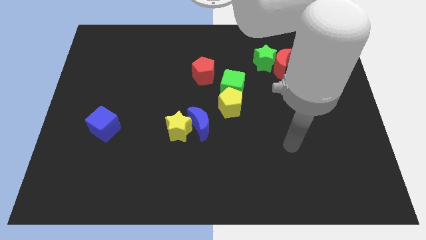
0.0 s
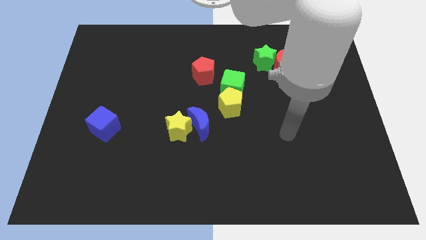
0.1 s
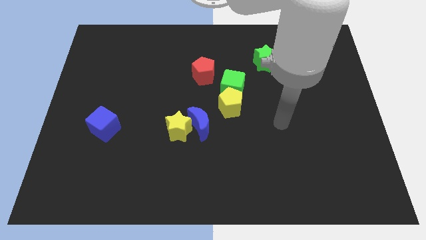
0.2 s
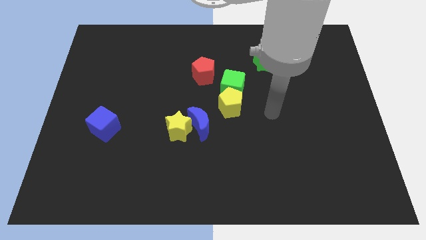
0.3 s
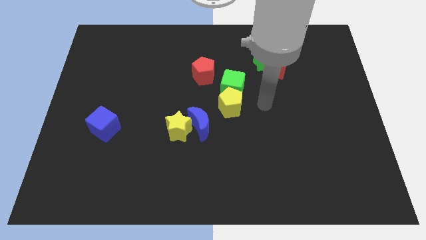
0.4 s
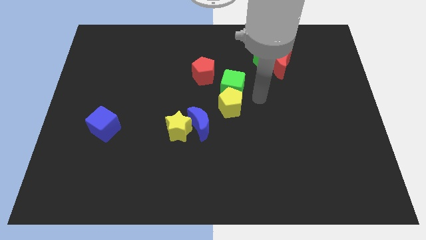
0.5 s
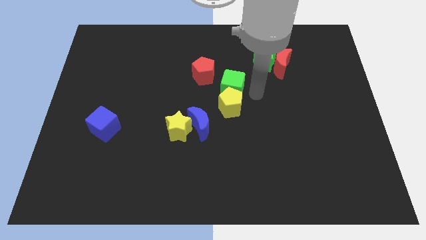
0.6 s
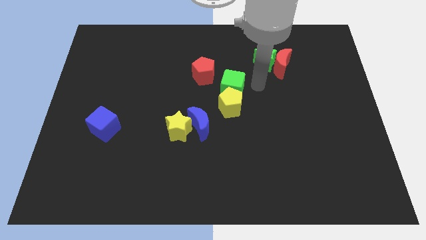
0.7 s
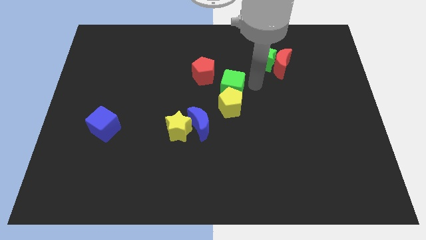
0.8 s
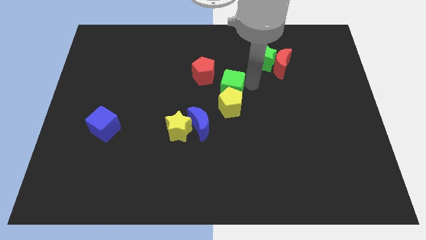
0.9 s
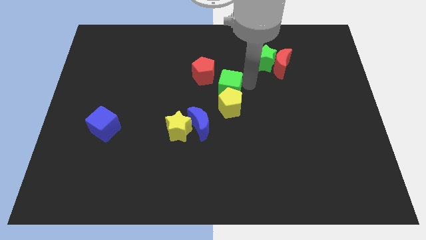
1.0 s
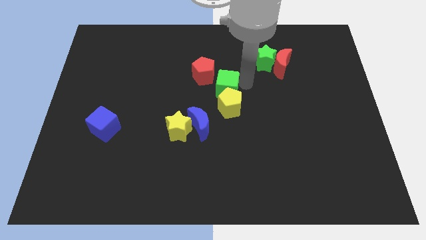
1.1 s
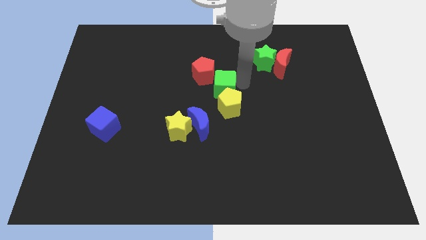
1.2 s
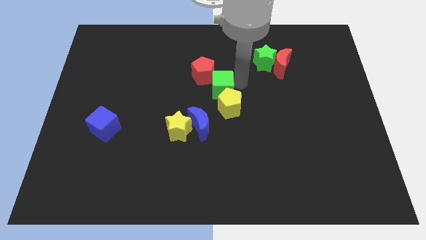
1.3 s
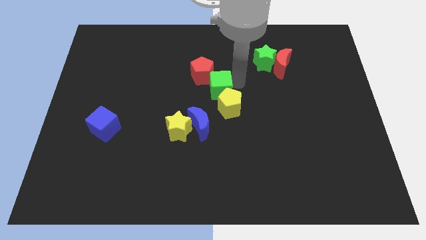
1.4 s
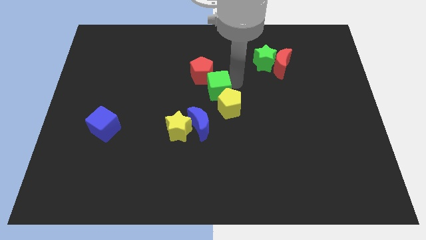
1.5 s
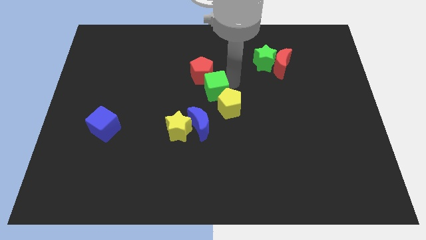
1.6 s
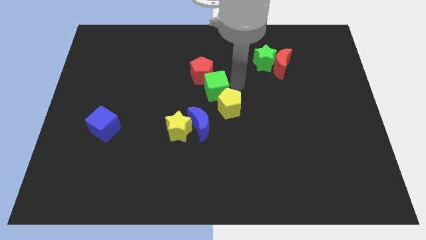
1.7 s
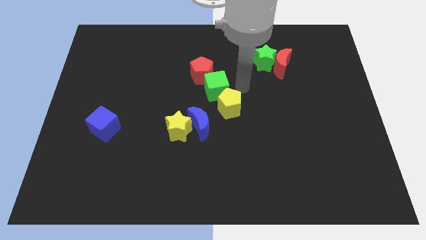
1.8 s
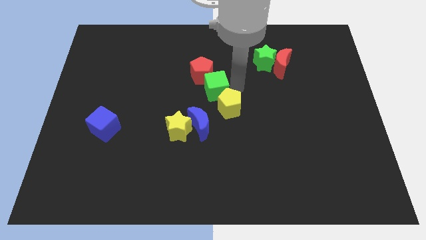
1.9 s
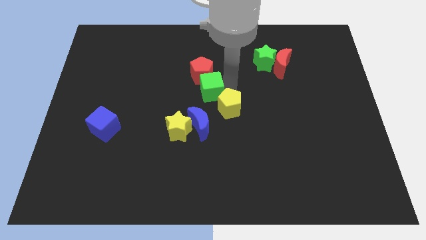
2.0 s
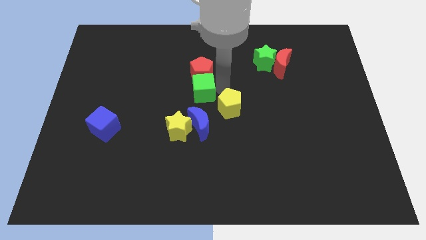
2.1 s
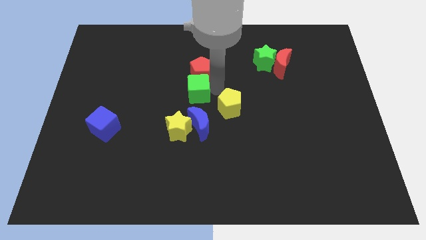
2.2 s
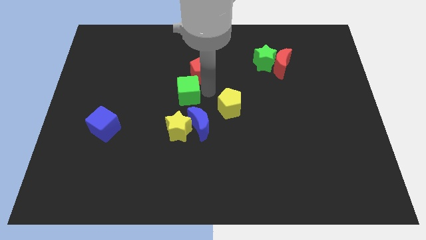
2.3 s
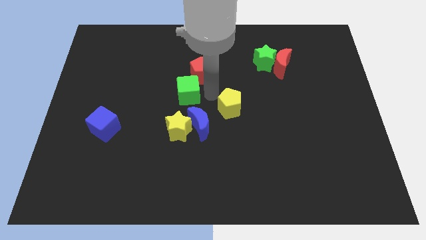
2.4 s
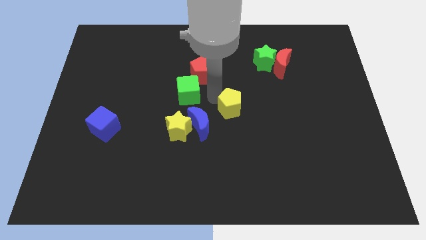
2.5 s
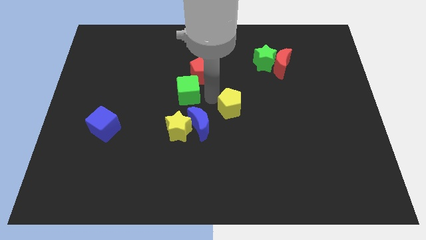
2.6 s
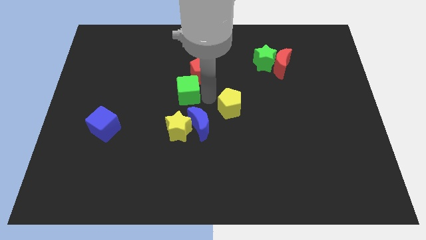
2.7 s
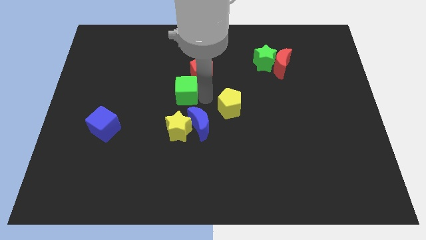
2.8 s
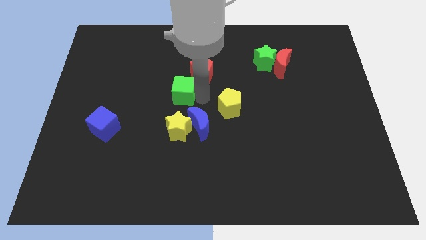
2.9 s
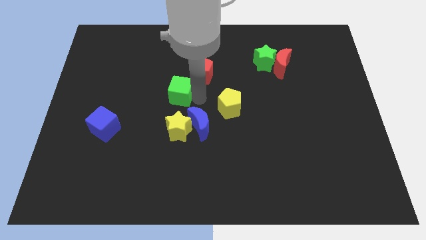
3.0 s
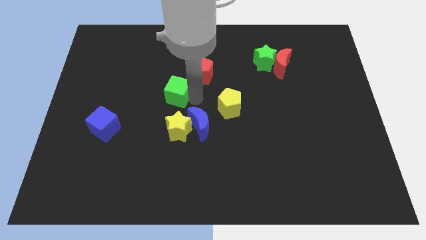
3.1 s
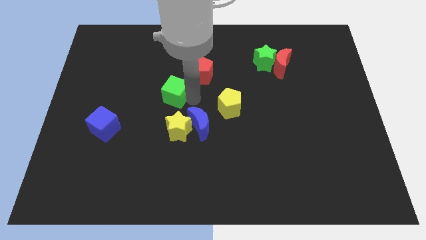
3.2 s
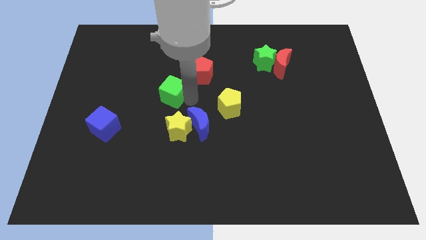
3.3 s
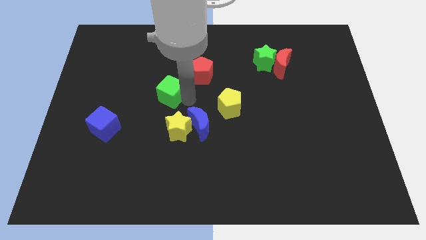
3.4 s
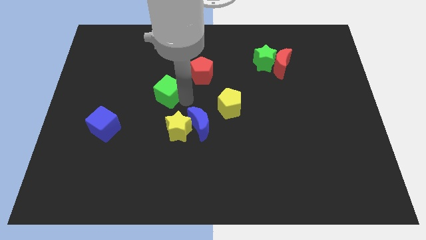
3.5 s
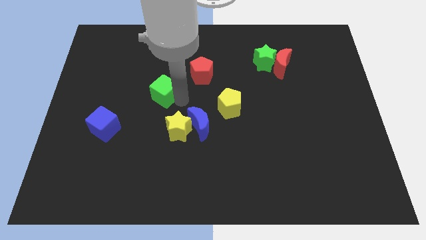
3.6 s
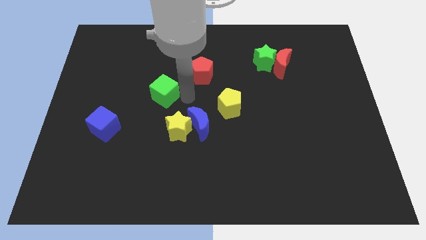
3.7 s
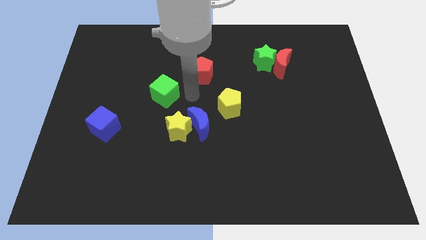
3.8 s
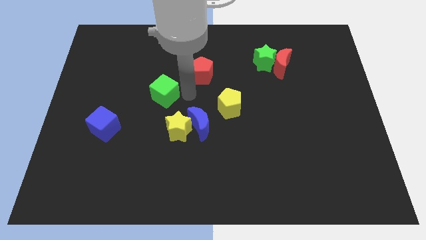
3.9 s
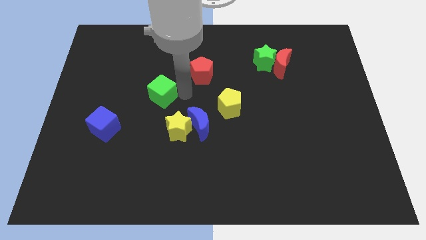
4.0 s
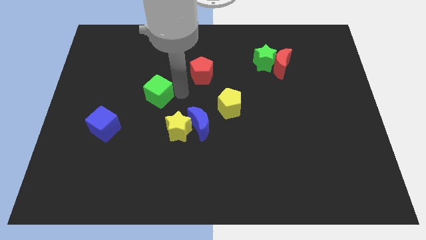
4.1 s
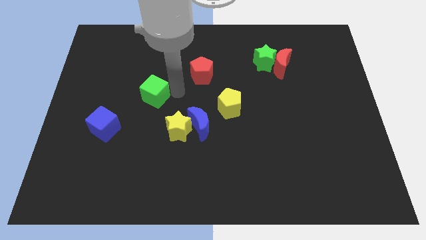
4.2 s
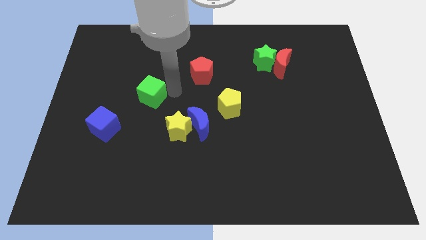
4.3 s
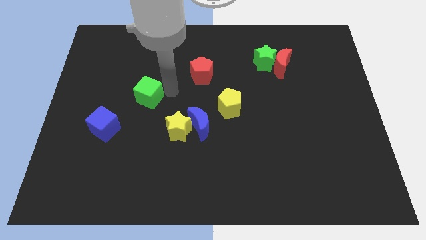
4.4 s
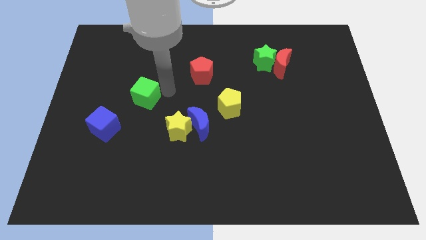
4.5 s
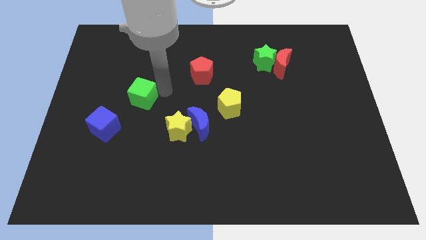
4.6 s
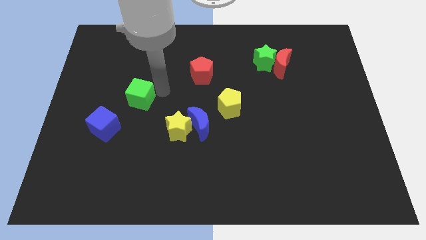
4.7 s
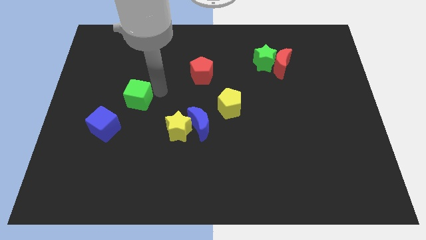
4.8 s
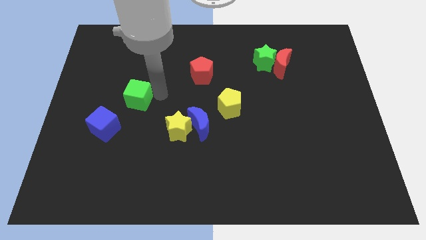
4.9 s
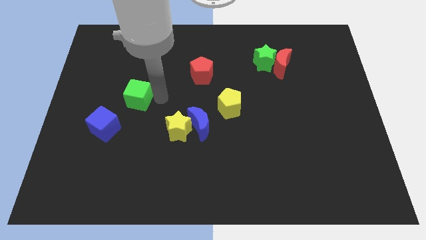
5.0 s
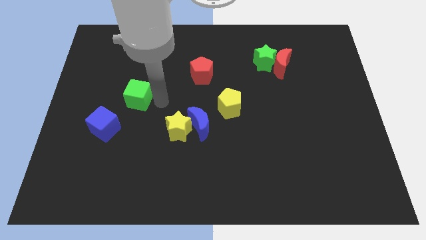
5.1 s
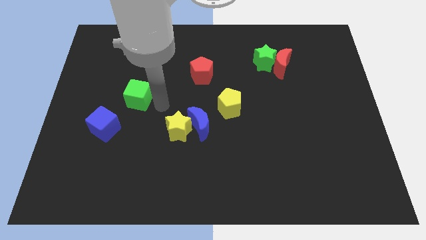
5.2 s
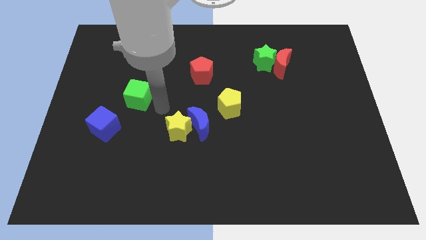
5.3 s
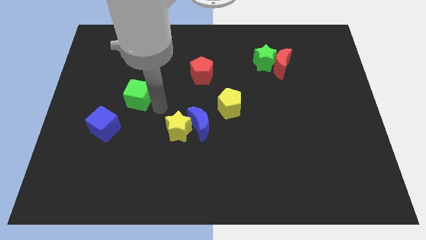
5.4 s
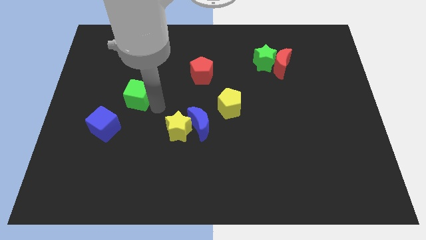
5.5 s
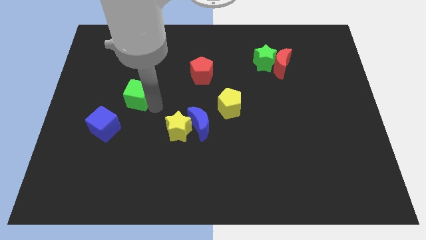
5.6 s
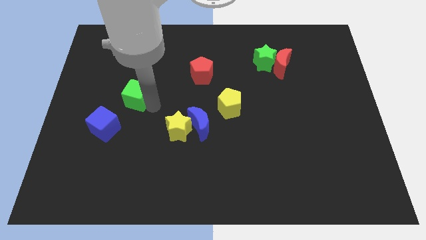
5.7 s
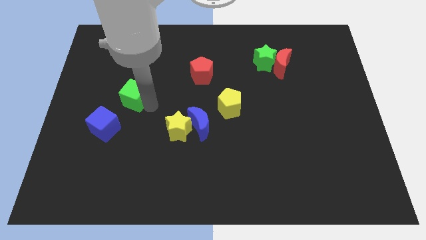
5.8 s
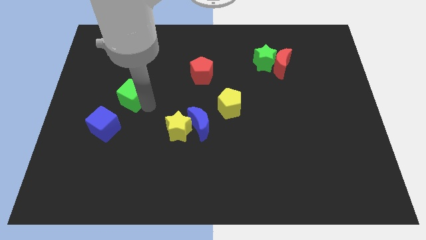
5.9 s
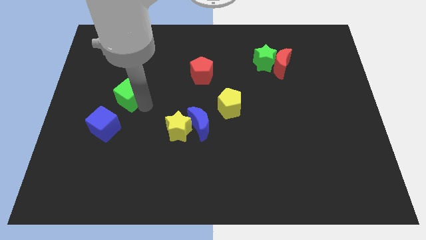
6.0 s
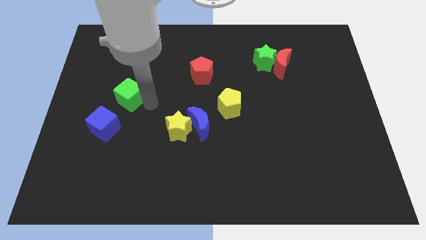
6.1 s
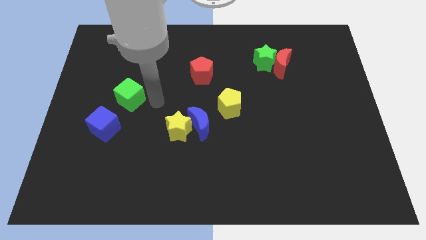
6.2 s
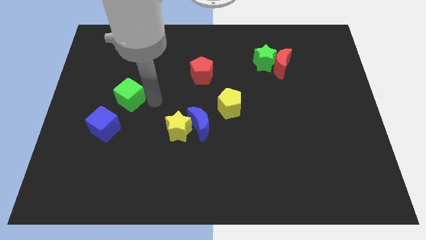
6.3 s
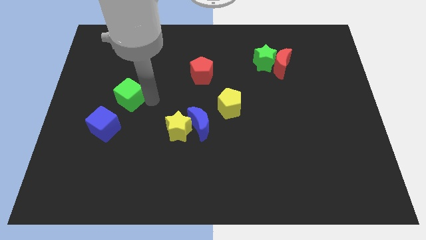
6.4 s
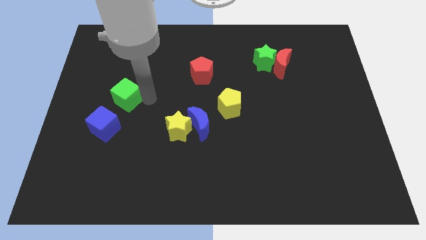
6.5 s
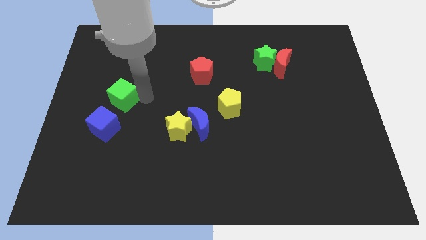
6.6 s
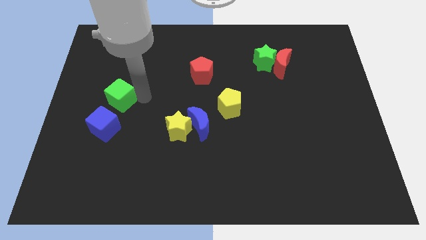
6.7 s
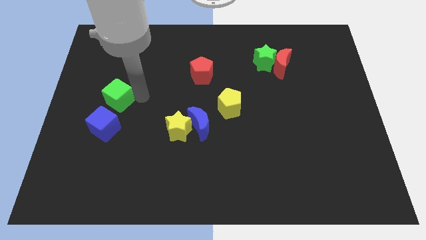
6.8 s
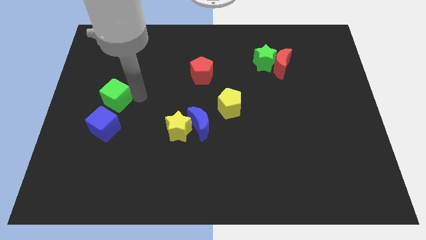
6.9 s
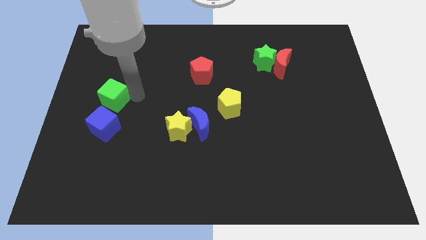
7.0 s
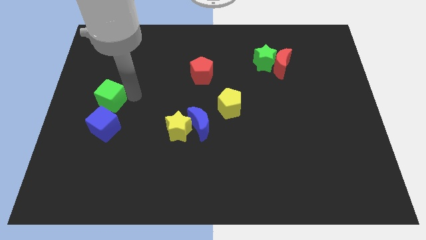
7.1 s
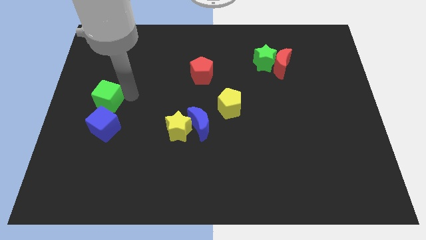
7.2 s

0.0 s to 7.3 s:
push the green cube to the center left
